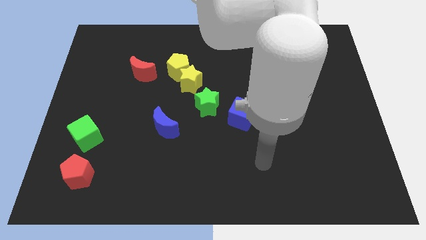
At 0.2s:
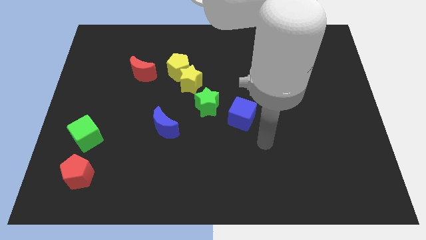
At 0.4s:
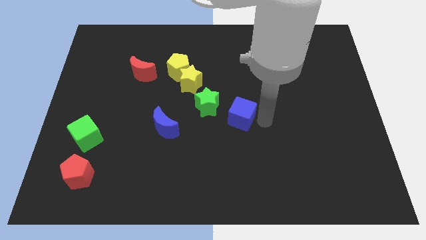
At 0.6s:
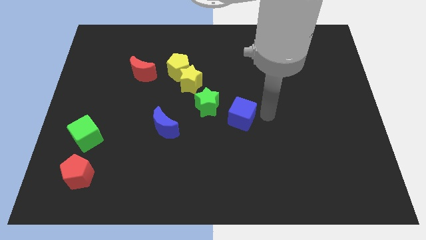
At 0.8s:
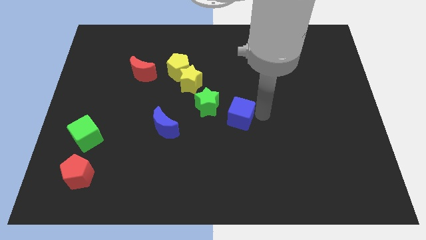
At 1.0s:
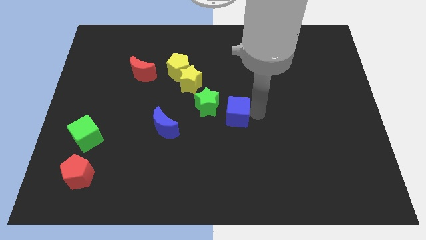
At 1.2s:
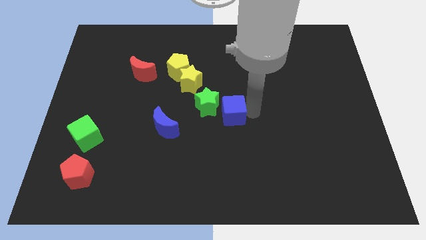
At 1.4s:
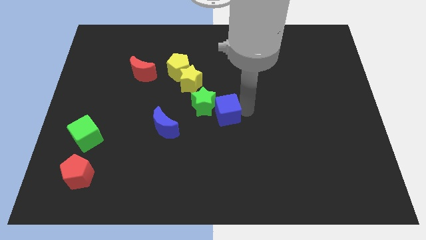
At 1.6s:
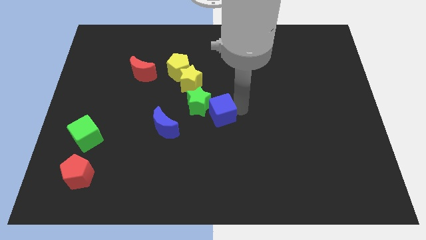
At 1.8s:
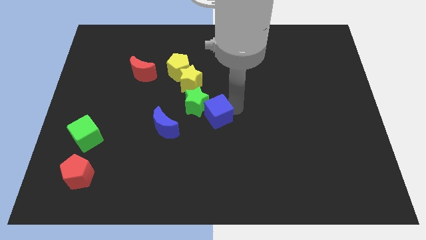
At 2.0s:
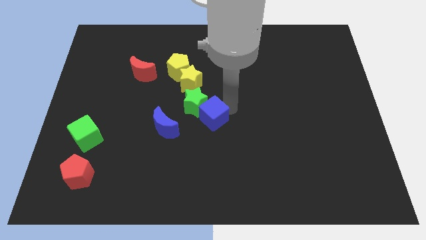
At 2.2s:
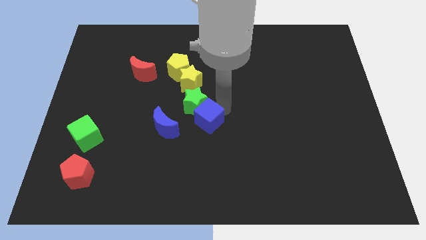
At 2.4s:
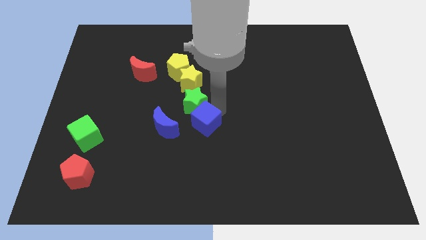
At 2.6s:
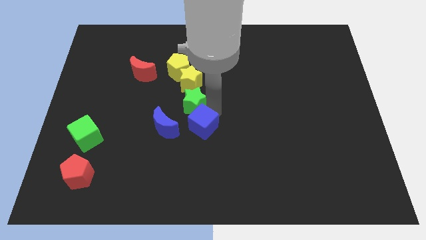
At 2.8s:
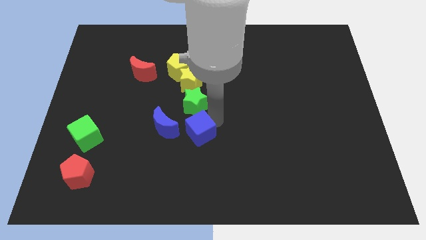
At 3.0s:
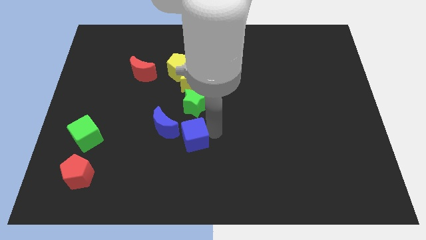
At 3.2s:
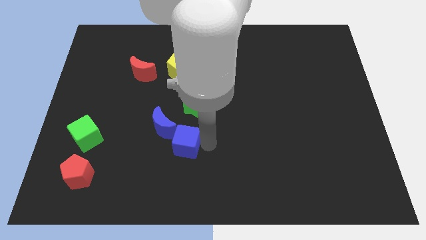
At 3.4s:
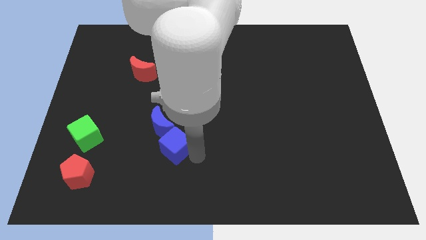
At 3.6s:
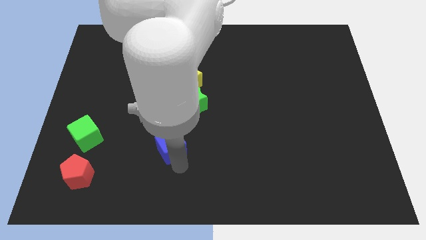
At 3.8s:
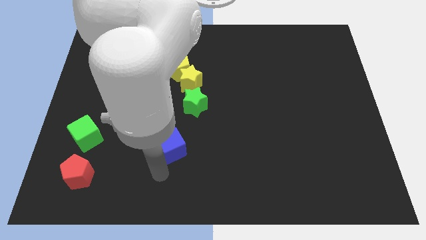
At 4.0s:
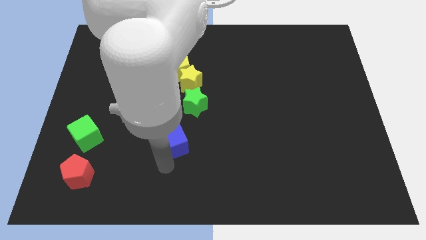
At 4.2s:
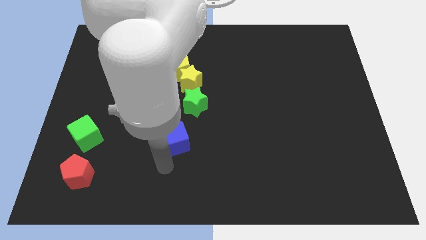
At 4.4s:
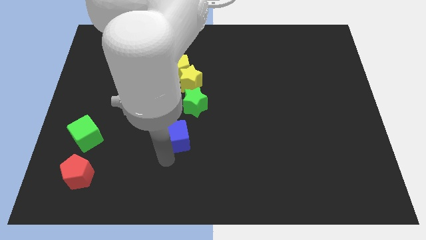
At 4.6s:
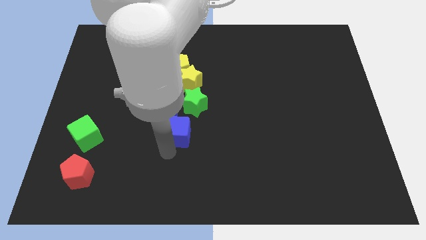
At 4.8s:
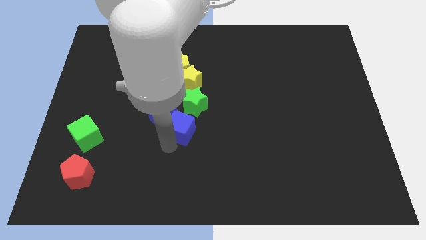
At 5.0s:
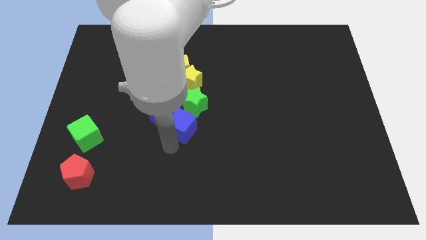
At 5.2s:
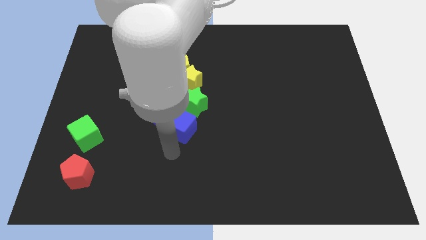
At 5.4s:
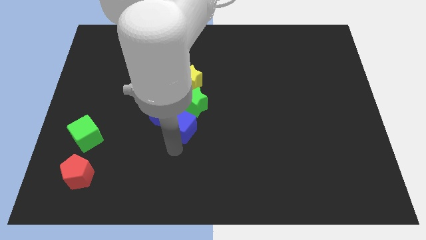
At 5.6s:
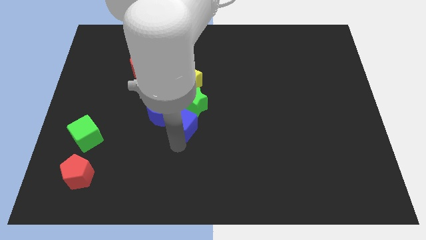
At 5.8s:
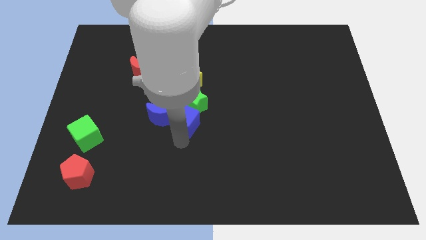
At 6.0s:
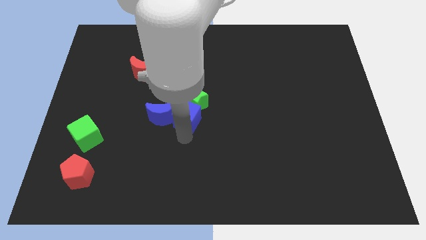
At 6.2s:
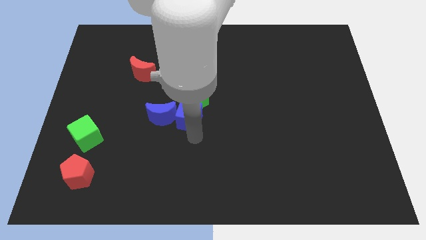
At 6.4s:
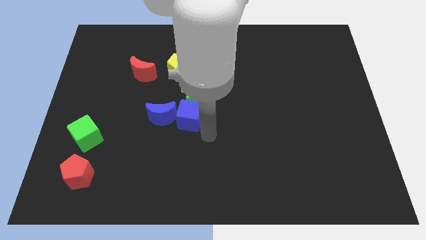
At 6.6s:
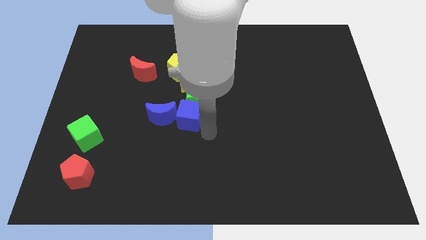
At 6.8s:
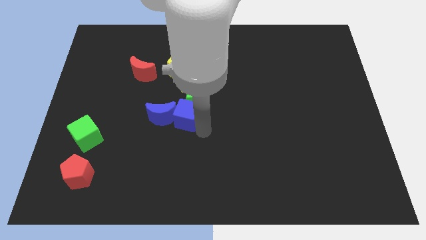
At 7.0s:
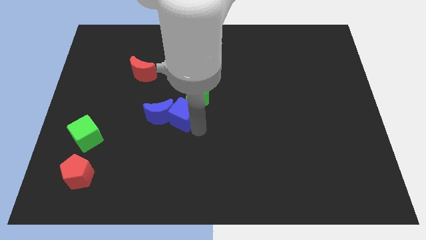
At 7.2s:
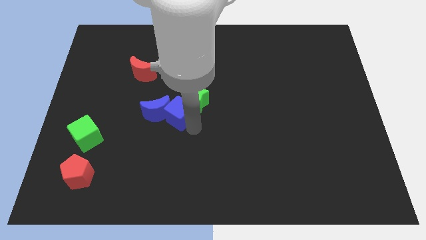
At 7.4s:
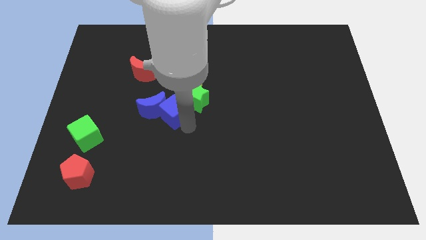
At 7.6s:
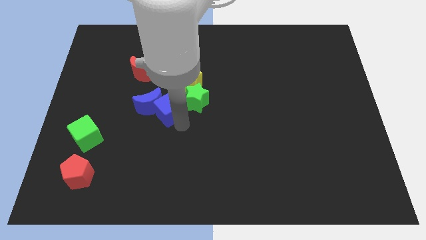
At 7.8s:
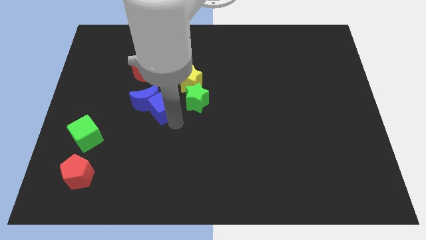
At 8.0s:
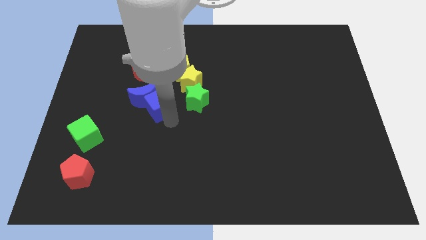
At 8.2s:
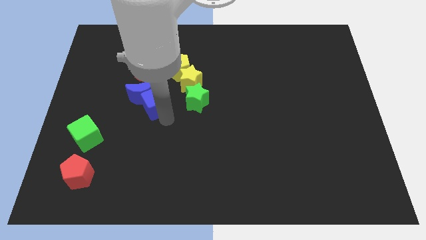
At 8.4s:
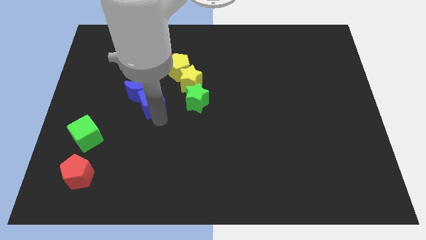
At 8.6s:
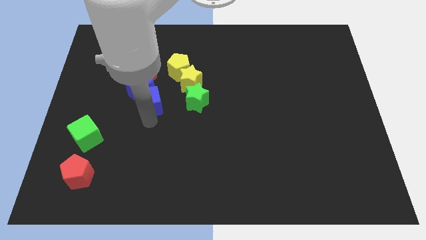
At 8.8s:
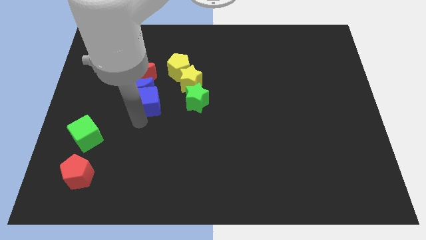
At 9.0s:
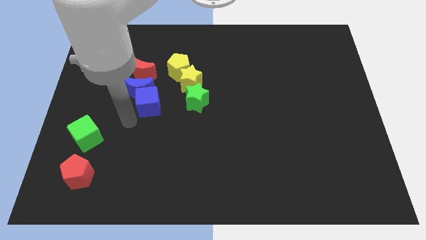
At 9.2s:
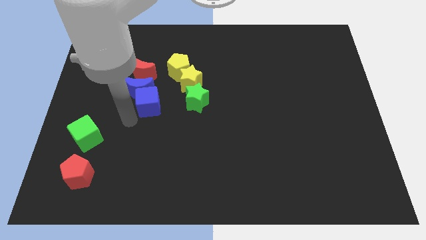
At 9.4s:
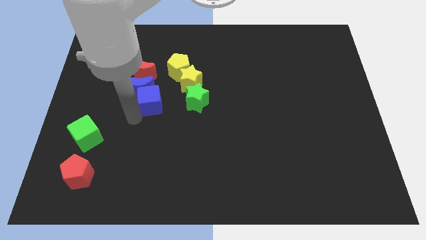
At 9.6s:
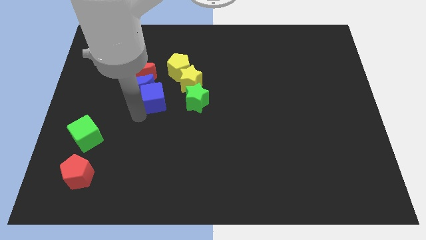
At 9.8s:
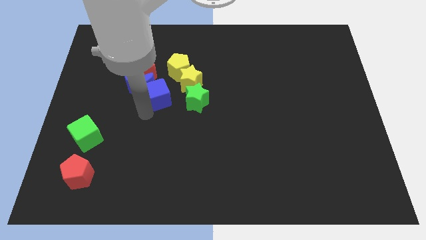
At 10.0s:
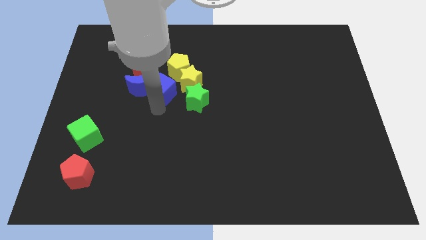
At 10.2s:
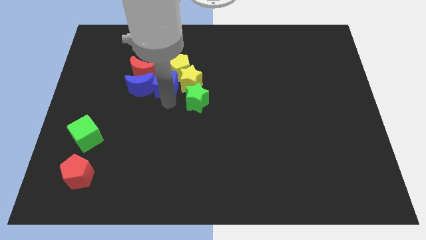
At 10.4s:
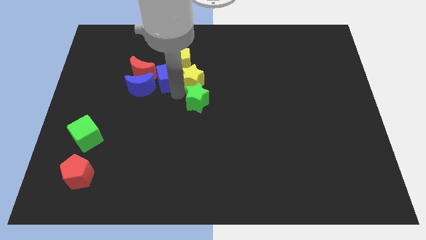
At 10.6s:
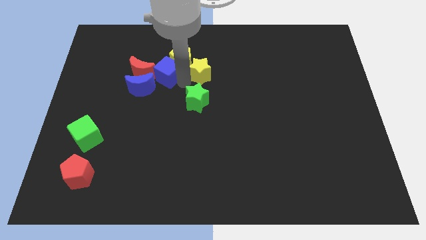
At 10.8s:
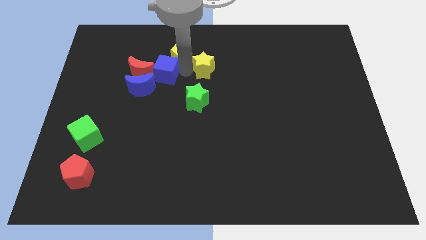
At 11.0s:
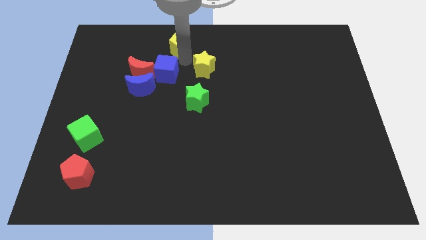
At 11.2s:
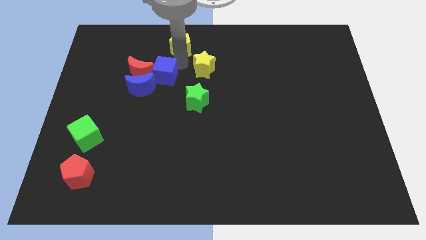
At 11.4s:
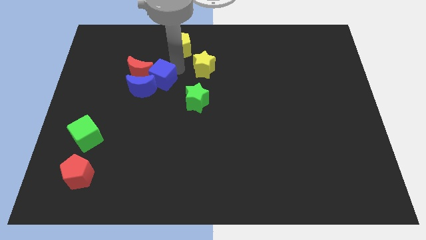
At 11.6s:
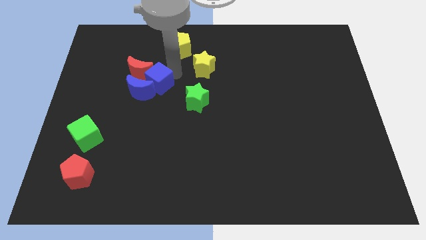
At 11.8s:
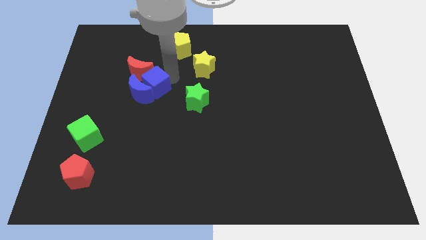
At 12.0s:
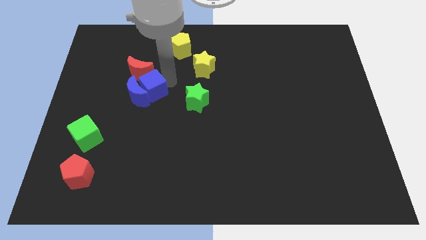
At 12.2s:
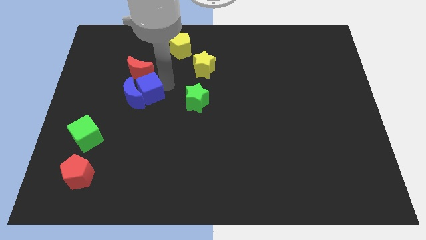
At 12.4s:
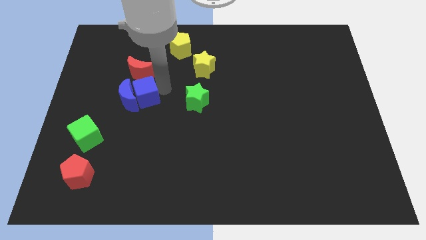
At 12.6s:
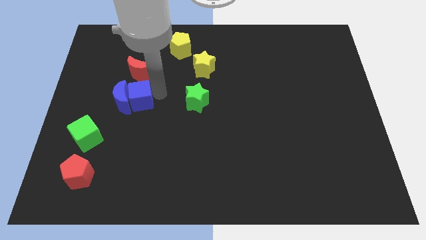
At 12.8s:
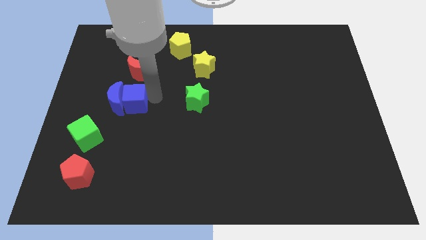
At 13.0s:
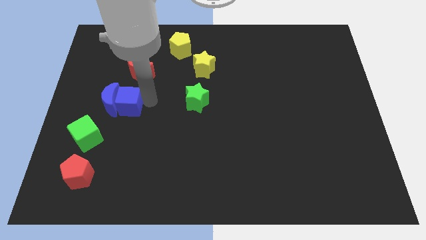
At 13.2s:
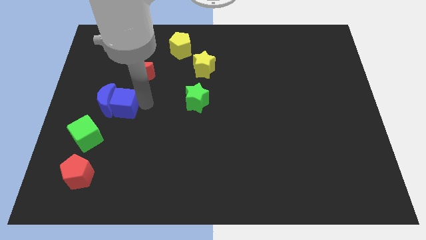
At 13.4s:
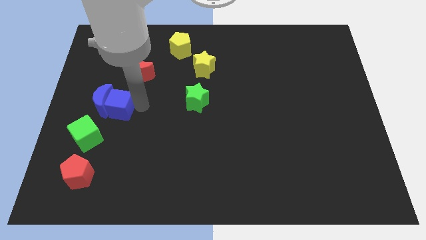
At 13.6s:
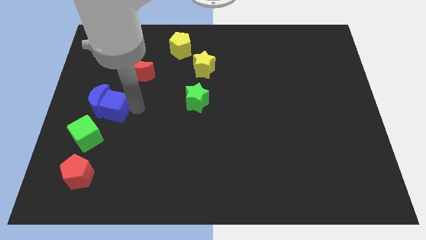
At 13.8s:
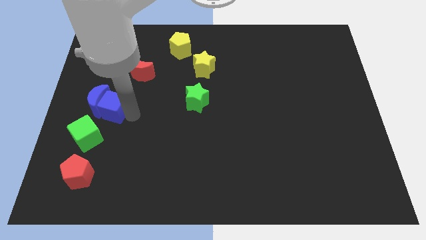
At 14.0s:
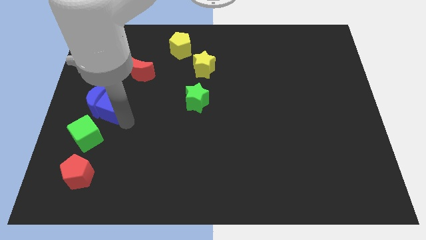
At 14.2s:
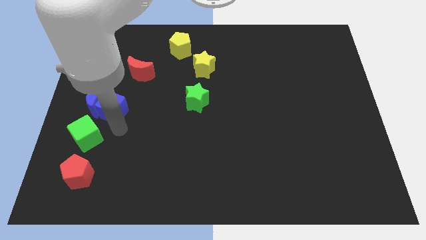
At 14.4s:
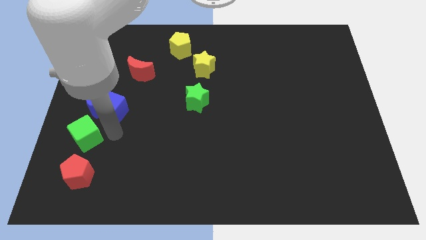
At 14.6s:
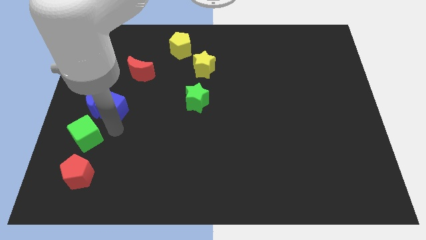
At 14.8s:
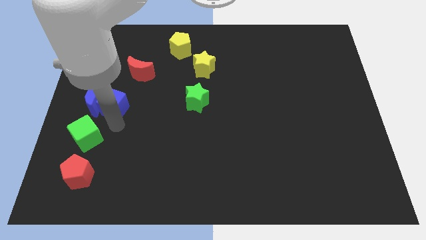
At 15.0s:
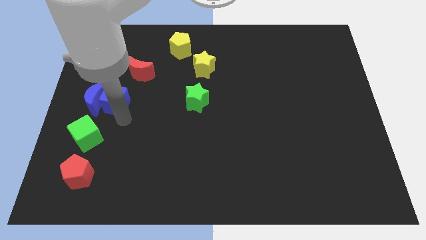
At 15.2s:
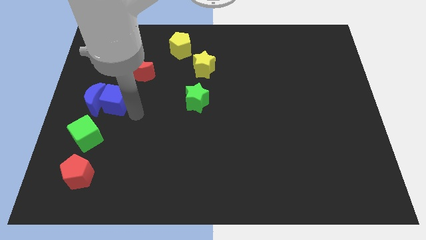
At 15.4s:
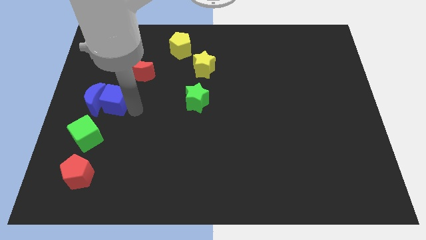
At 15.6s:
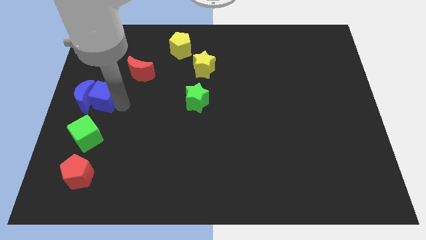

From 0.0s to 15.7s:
move the blue cube to the center left
